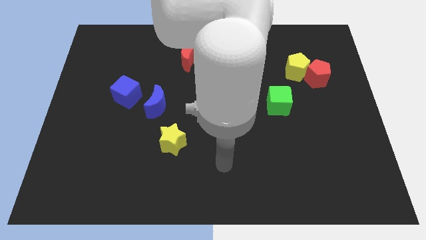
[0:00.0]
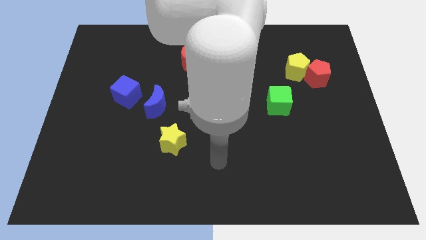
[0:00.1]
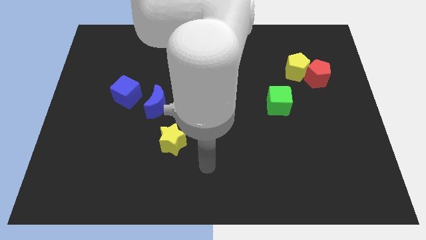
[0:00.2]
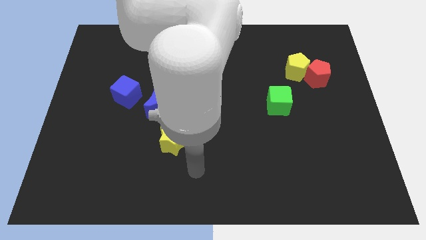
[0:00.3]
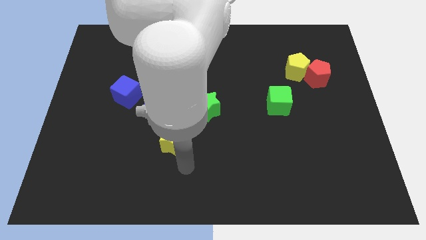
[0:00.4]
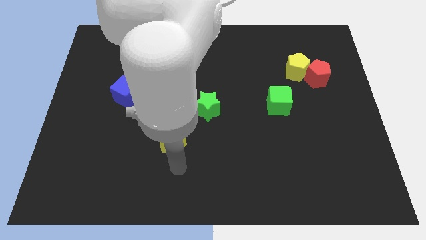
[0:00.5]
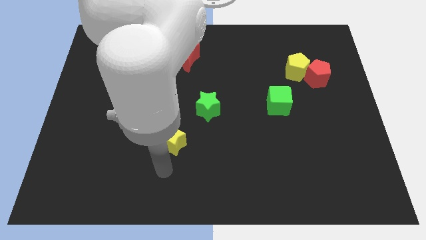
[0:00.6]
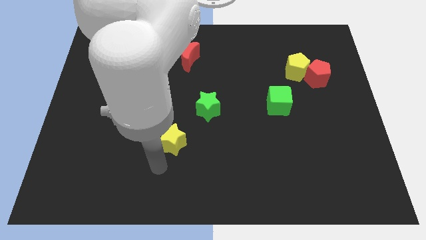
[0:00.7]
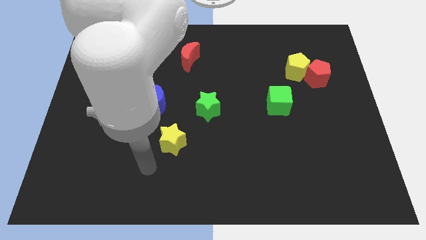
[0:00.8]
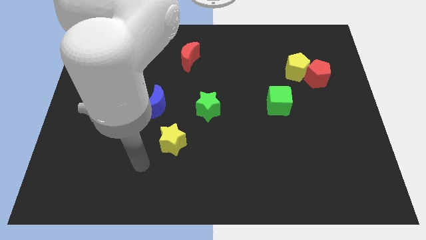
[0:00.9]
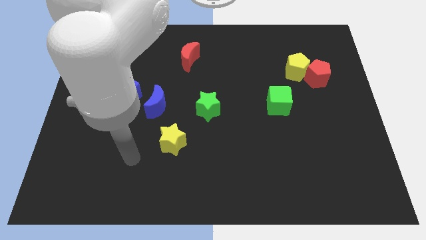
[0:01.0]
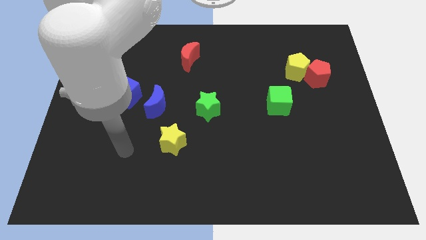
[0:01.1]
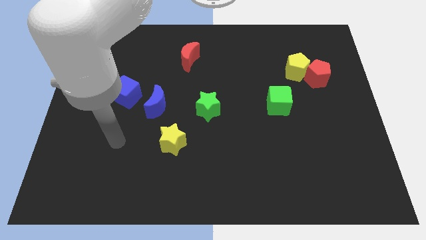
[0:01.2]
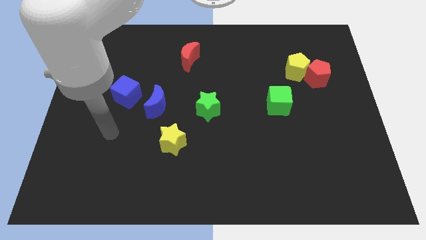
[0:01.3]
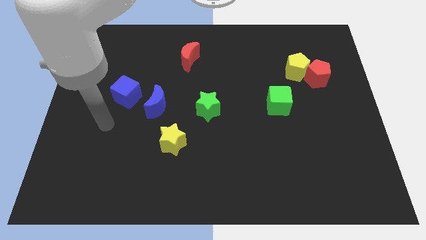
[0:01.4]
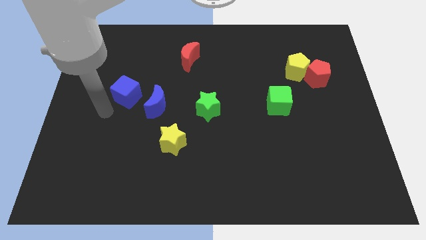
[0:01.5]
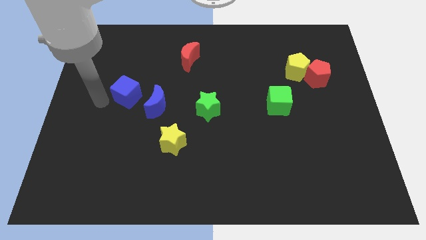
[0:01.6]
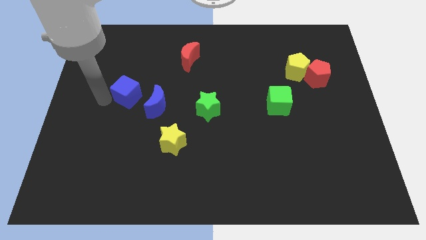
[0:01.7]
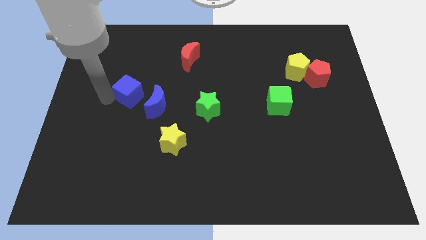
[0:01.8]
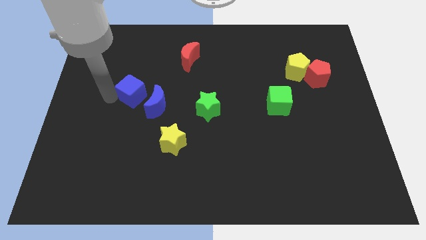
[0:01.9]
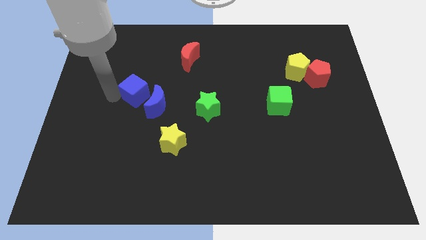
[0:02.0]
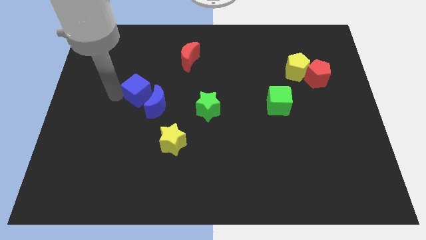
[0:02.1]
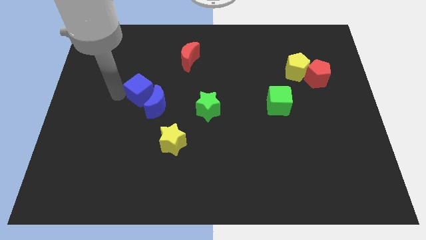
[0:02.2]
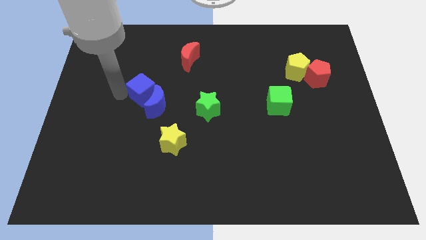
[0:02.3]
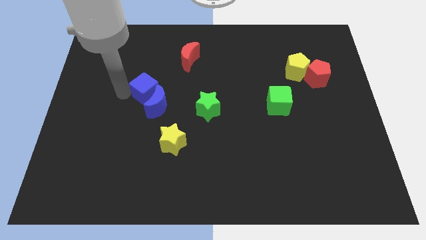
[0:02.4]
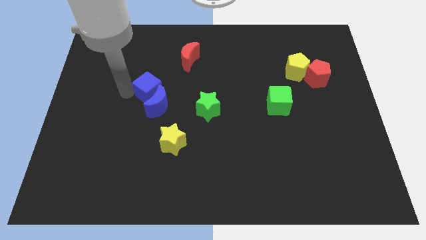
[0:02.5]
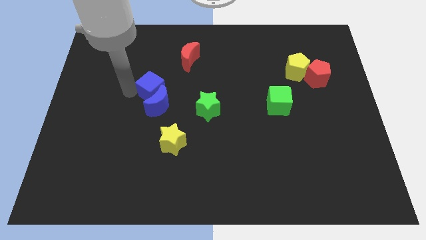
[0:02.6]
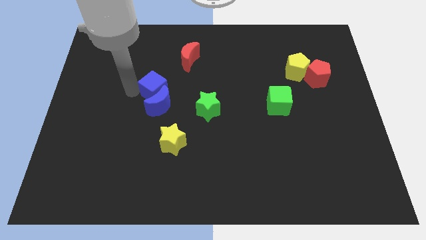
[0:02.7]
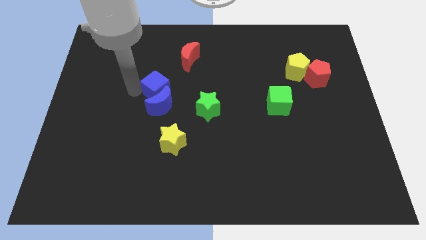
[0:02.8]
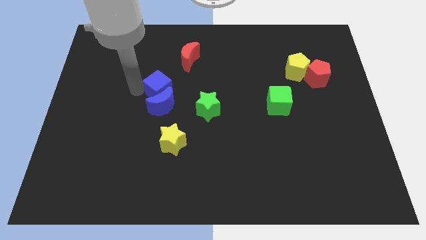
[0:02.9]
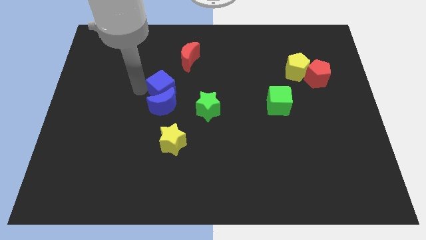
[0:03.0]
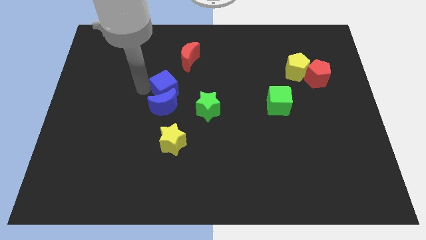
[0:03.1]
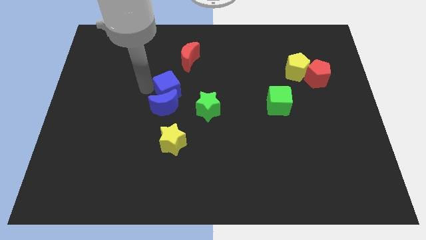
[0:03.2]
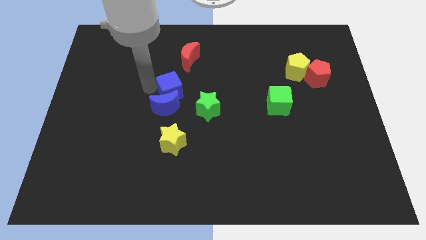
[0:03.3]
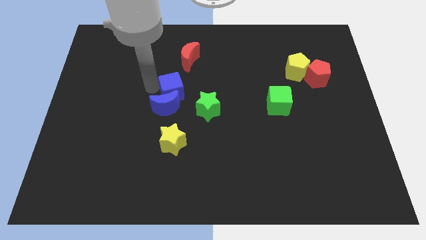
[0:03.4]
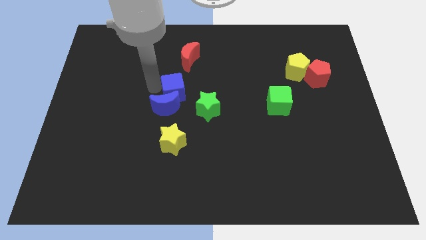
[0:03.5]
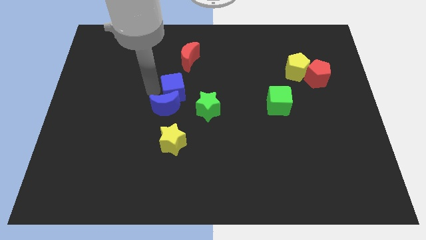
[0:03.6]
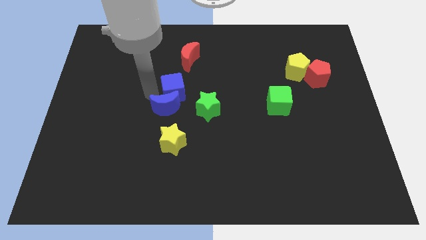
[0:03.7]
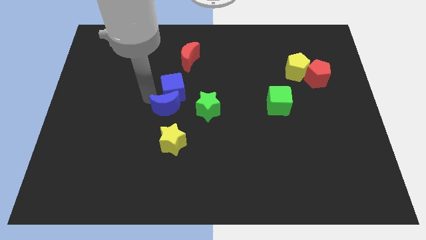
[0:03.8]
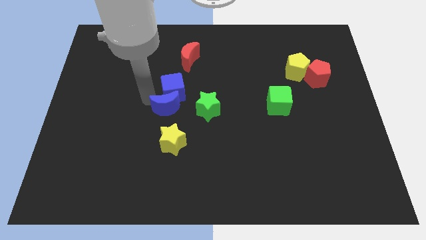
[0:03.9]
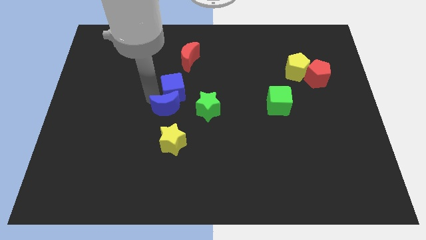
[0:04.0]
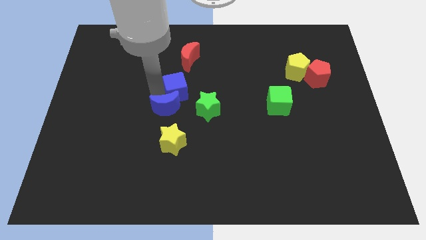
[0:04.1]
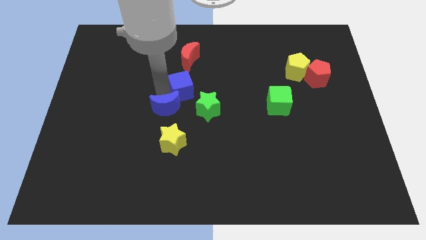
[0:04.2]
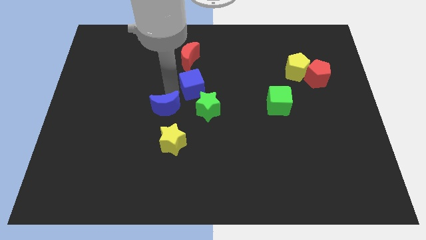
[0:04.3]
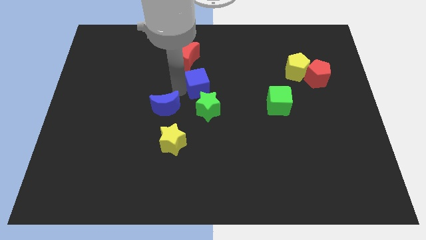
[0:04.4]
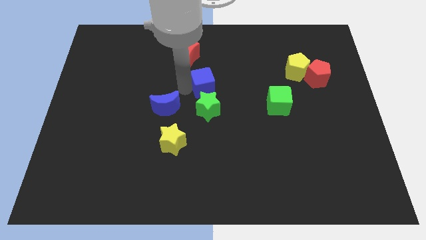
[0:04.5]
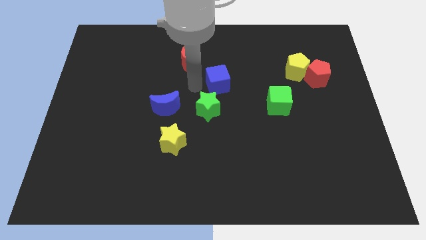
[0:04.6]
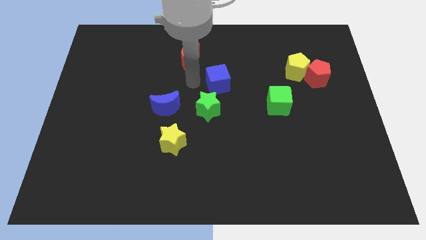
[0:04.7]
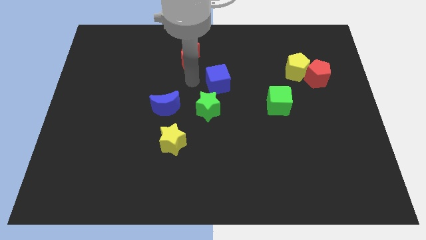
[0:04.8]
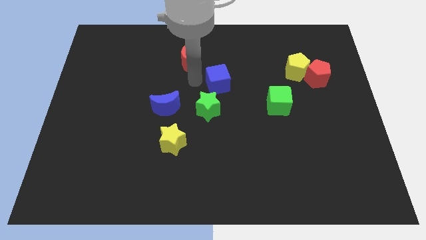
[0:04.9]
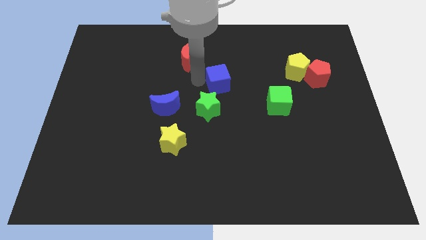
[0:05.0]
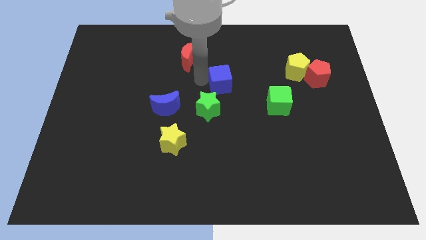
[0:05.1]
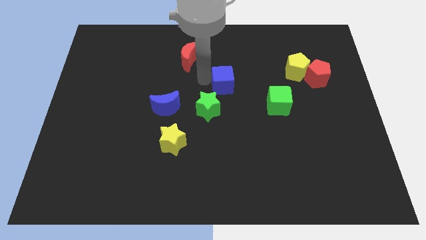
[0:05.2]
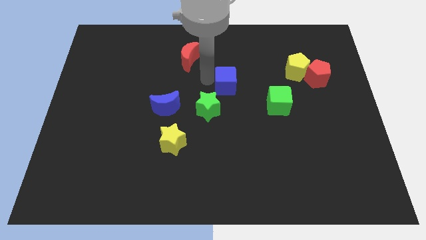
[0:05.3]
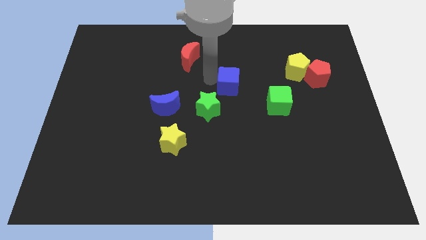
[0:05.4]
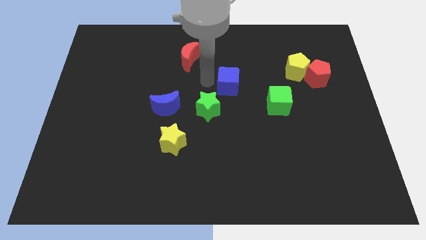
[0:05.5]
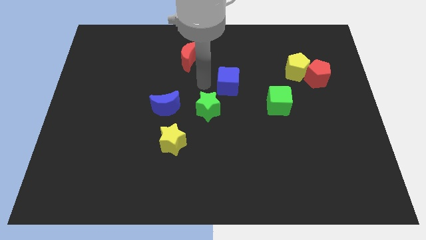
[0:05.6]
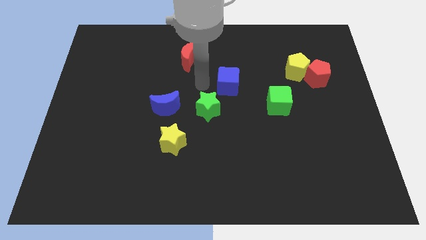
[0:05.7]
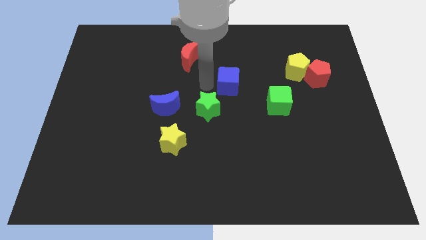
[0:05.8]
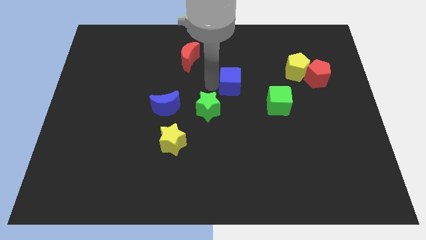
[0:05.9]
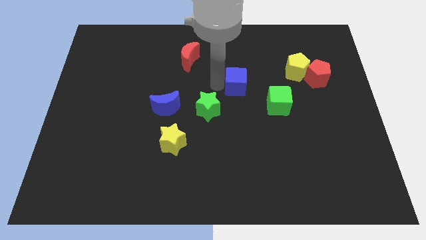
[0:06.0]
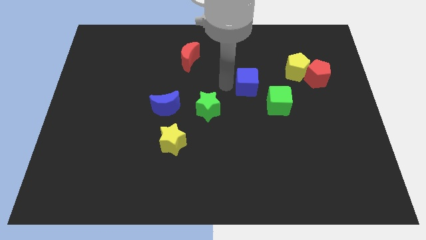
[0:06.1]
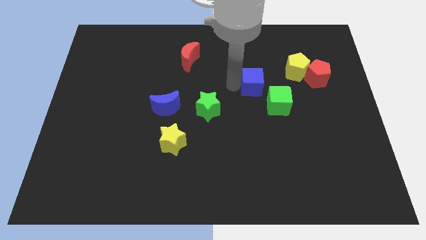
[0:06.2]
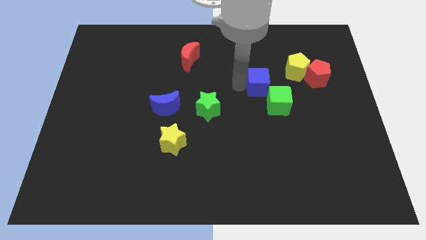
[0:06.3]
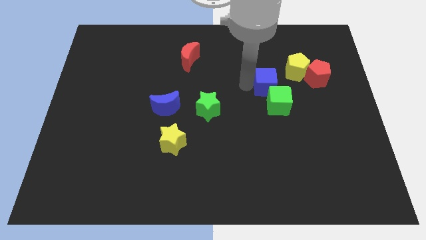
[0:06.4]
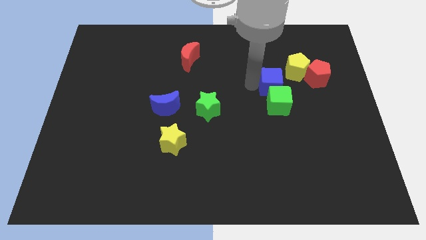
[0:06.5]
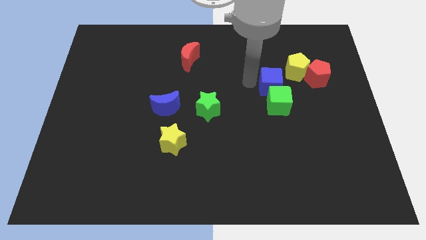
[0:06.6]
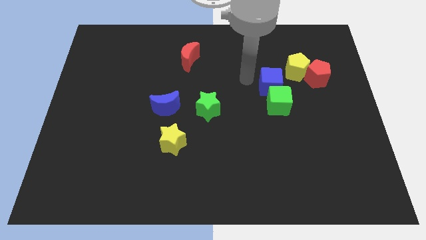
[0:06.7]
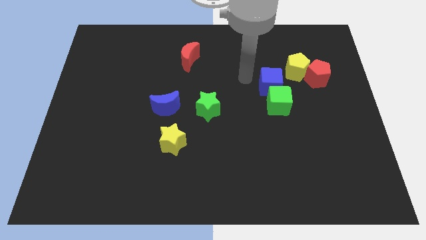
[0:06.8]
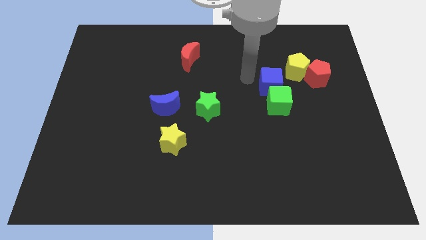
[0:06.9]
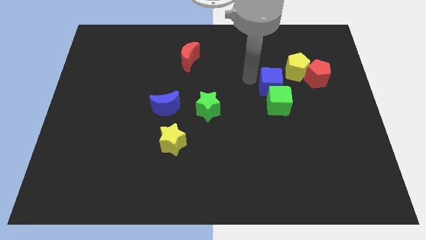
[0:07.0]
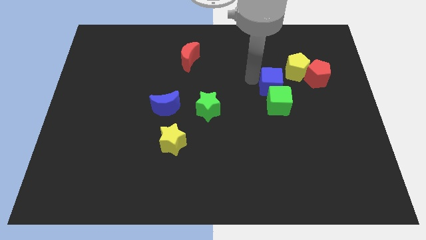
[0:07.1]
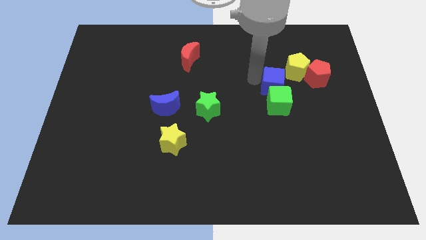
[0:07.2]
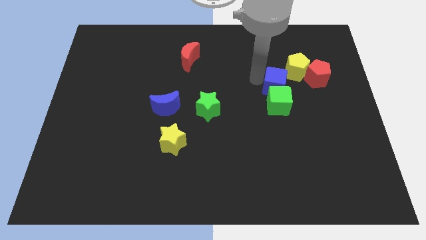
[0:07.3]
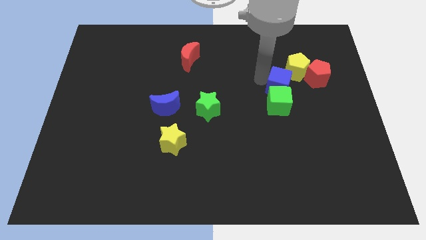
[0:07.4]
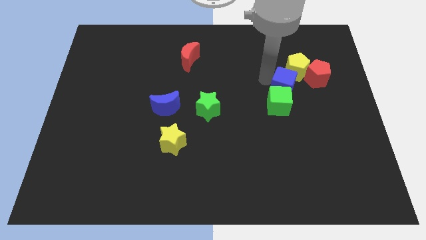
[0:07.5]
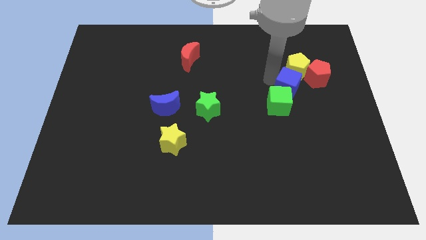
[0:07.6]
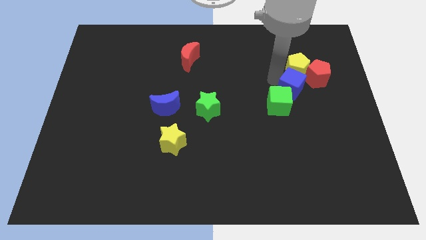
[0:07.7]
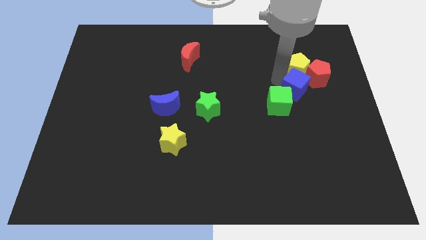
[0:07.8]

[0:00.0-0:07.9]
put the blue cube just right of the green cube
